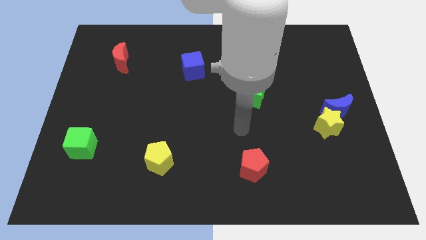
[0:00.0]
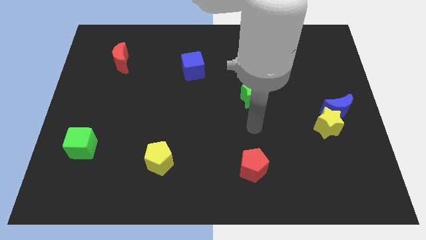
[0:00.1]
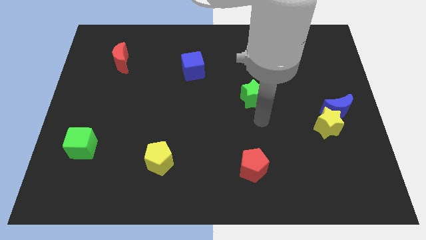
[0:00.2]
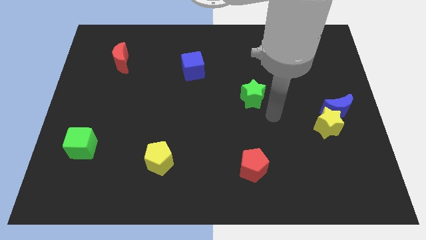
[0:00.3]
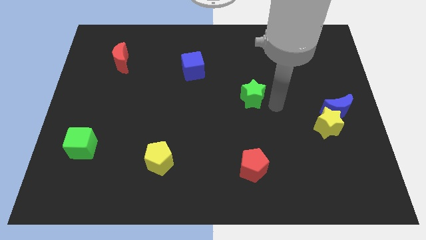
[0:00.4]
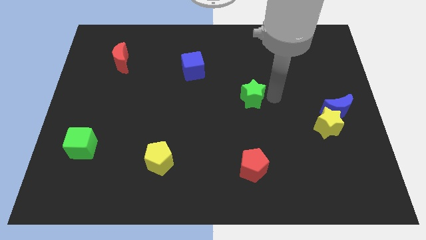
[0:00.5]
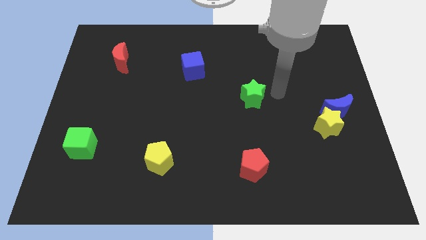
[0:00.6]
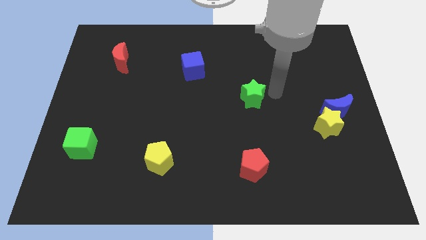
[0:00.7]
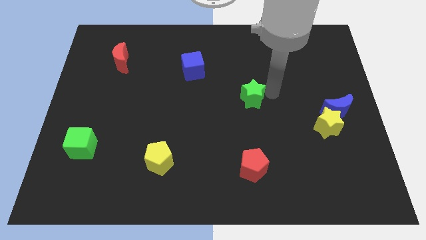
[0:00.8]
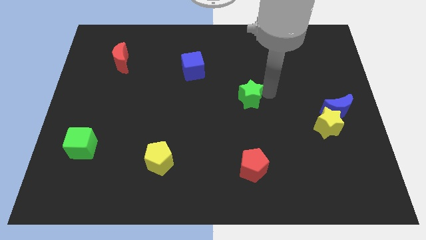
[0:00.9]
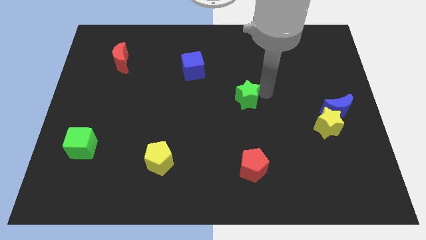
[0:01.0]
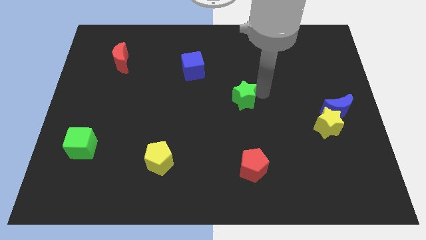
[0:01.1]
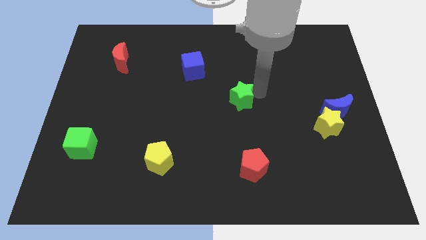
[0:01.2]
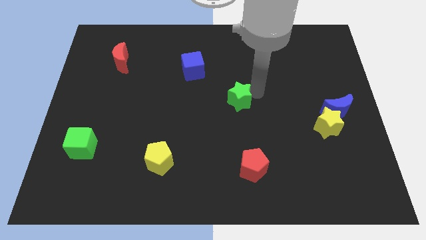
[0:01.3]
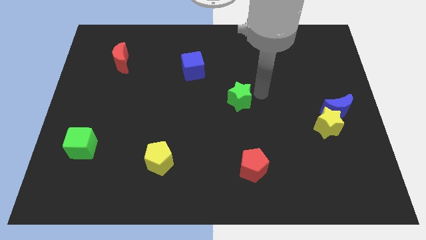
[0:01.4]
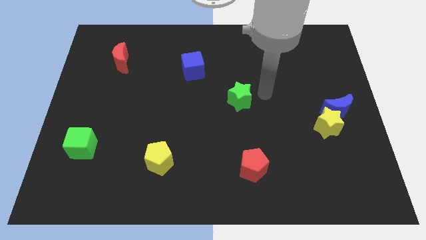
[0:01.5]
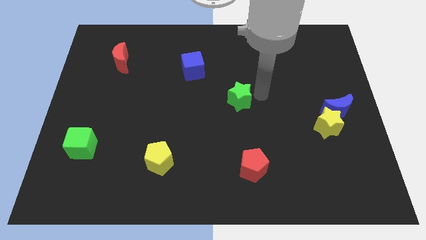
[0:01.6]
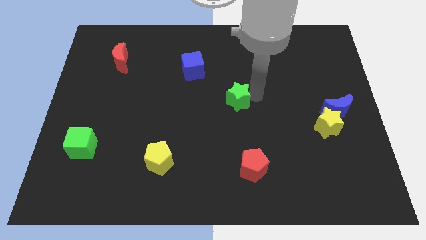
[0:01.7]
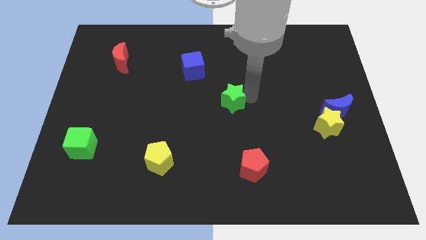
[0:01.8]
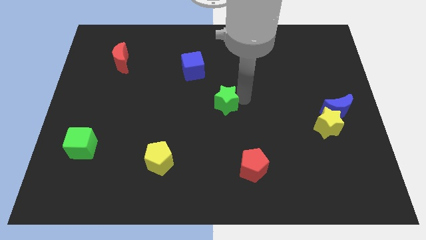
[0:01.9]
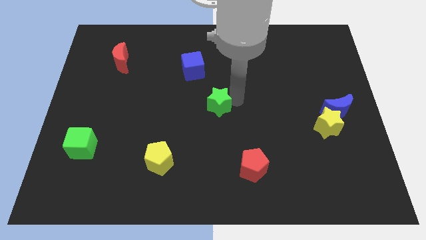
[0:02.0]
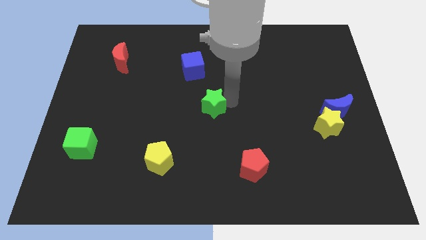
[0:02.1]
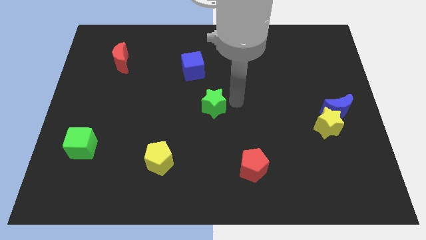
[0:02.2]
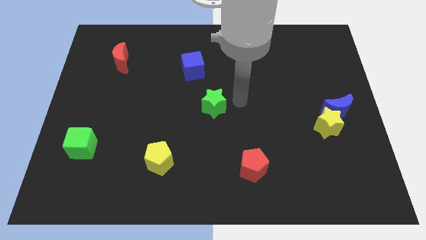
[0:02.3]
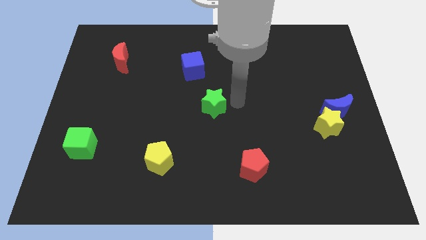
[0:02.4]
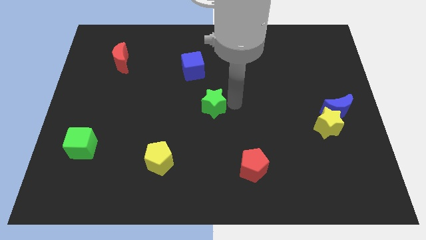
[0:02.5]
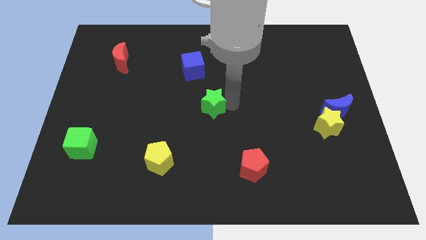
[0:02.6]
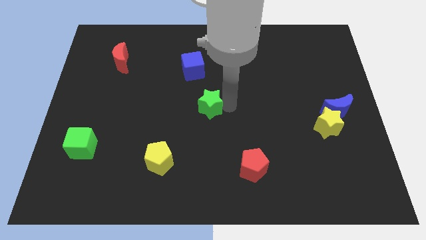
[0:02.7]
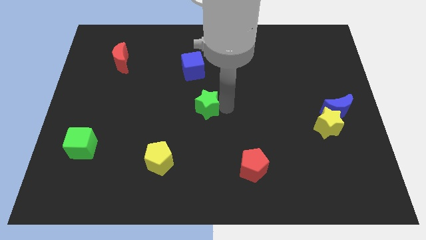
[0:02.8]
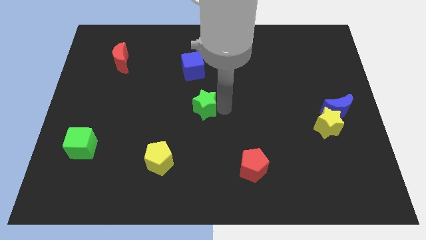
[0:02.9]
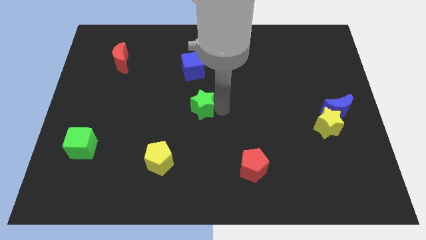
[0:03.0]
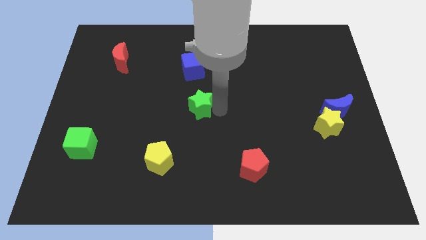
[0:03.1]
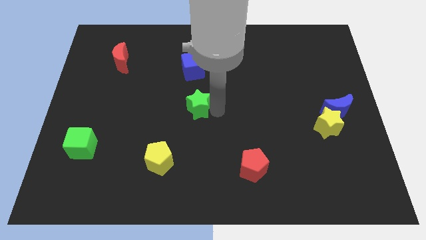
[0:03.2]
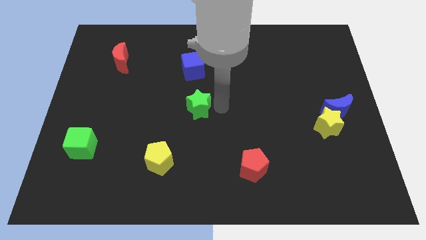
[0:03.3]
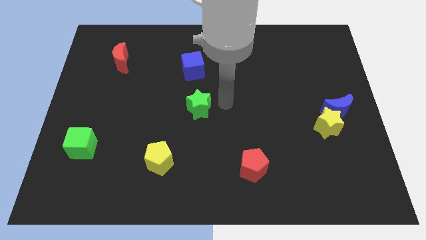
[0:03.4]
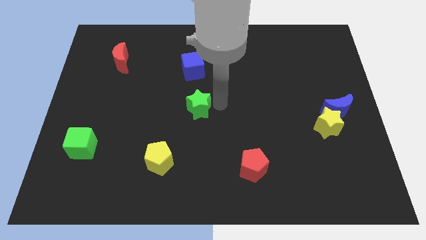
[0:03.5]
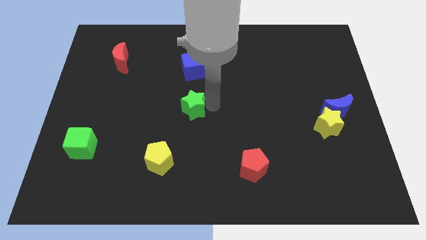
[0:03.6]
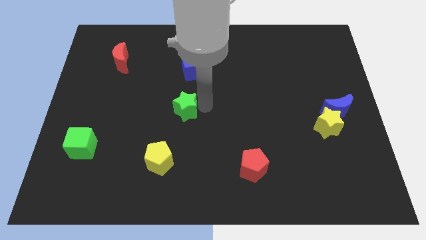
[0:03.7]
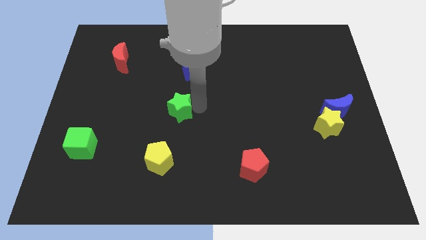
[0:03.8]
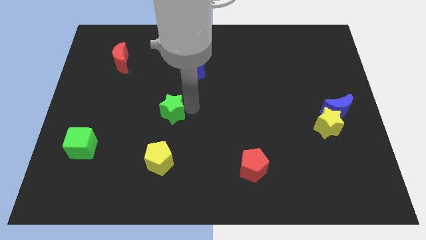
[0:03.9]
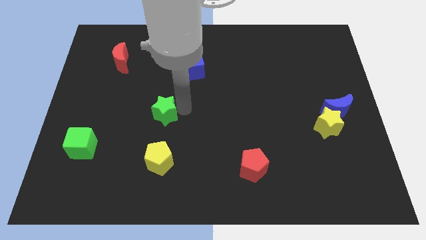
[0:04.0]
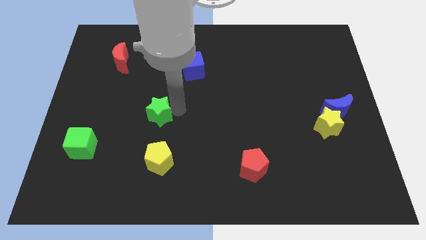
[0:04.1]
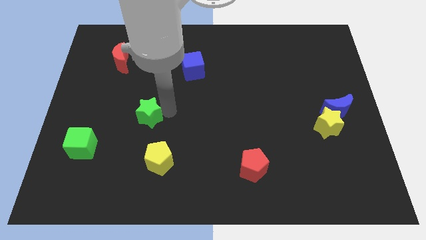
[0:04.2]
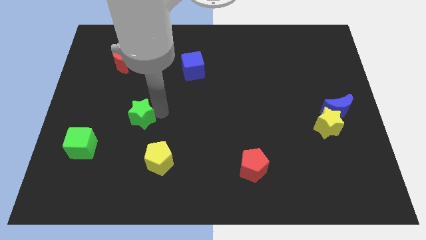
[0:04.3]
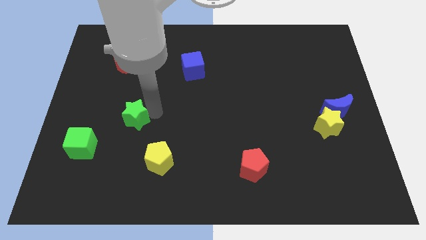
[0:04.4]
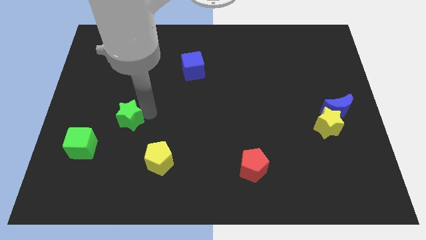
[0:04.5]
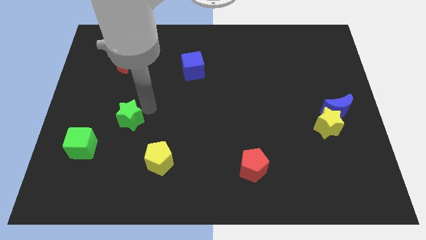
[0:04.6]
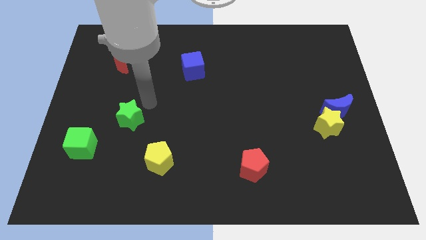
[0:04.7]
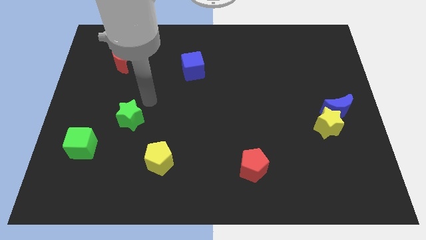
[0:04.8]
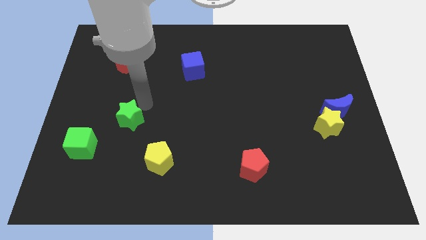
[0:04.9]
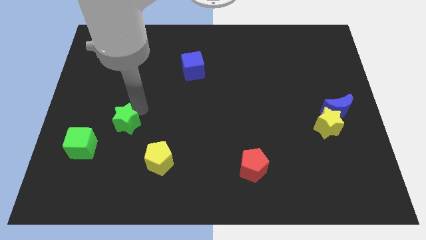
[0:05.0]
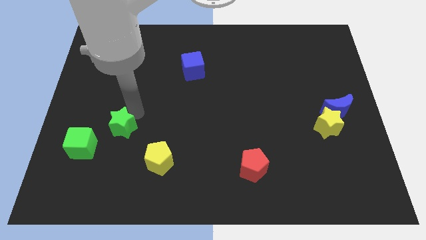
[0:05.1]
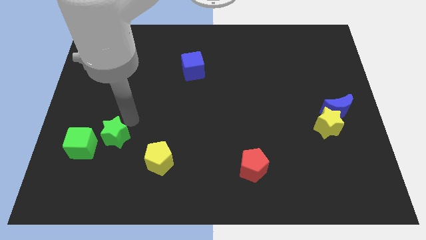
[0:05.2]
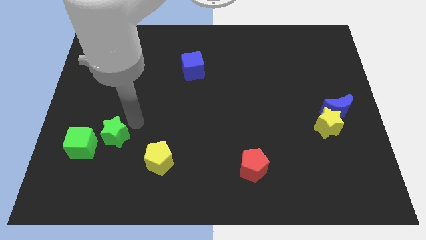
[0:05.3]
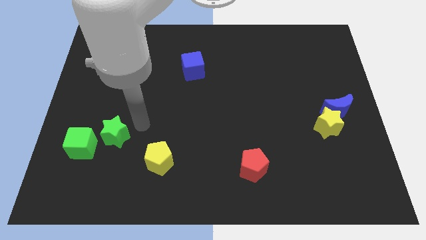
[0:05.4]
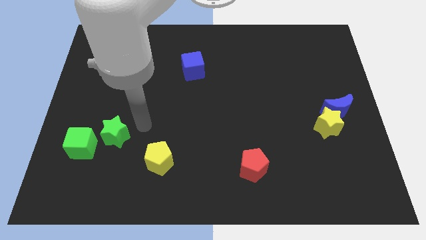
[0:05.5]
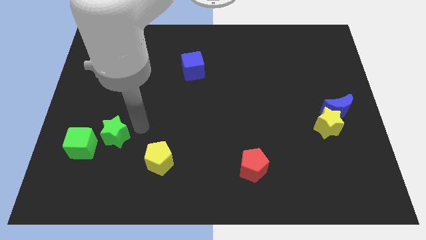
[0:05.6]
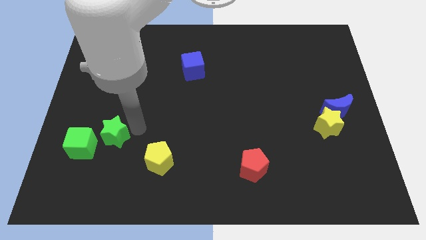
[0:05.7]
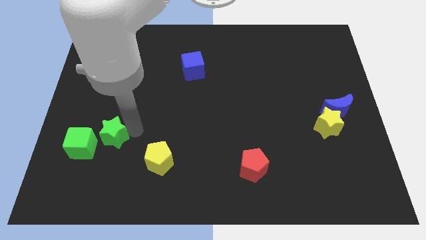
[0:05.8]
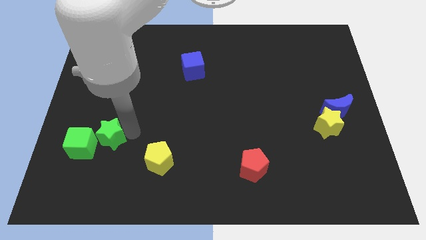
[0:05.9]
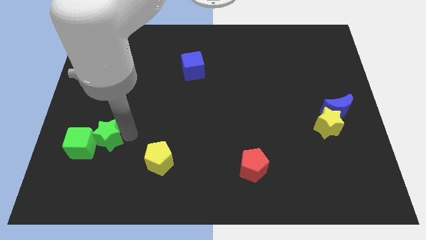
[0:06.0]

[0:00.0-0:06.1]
slide the green star next to the green cube
